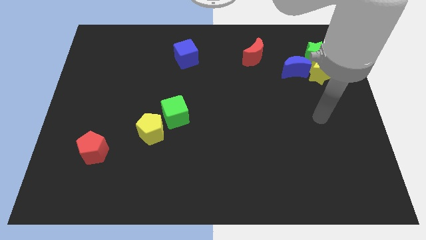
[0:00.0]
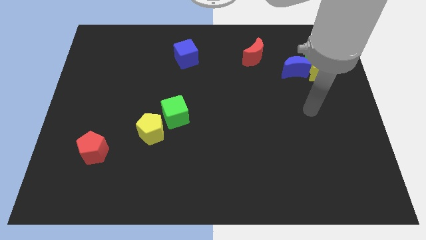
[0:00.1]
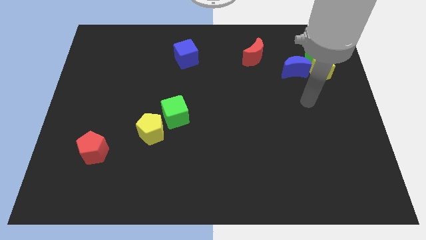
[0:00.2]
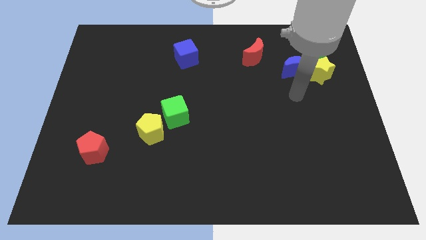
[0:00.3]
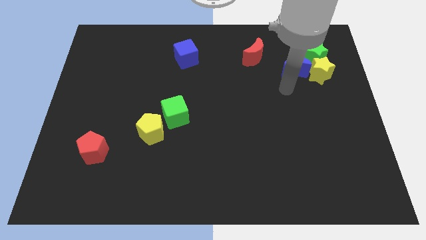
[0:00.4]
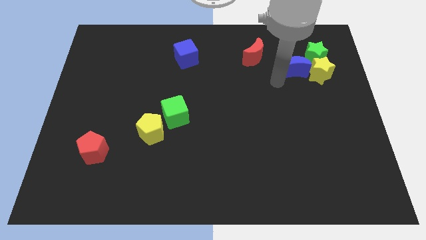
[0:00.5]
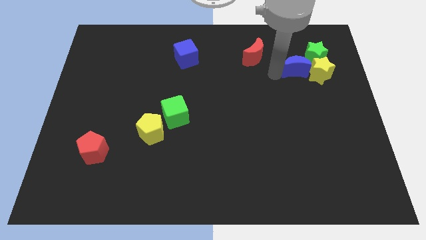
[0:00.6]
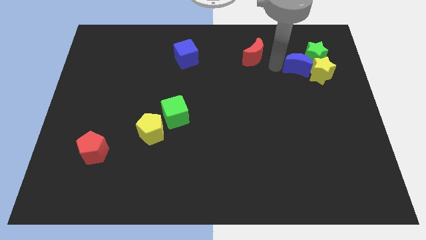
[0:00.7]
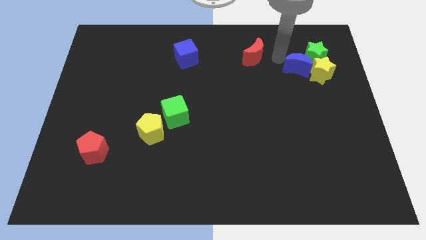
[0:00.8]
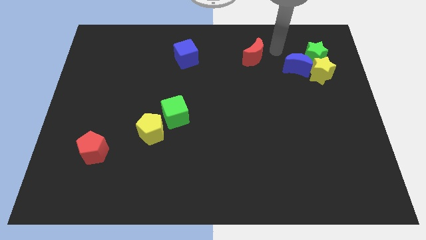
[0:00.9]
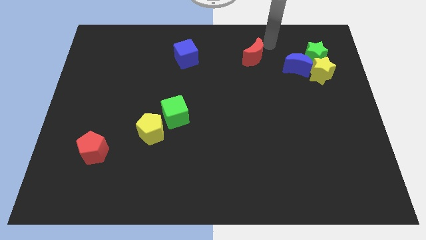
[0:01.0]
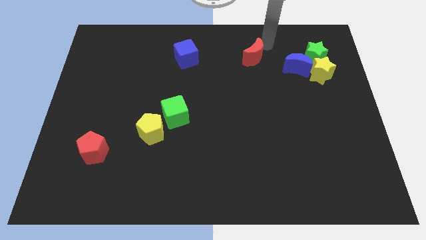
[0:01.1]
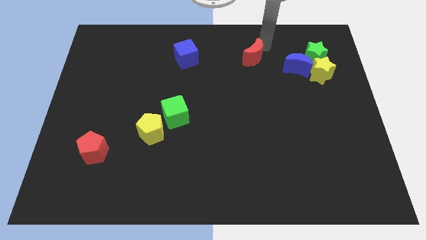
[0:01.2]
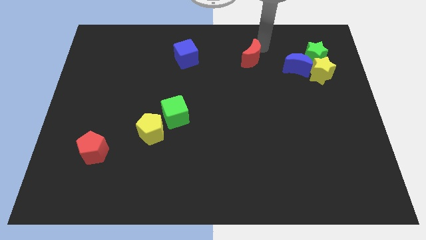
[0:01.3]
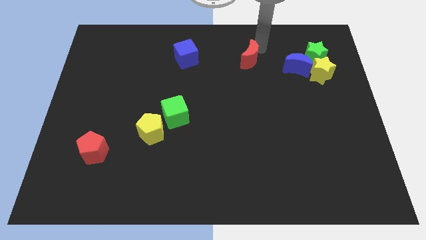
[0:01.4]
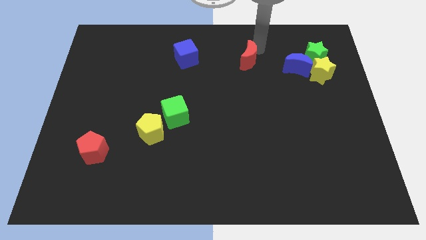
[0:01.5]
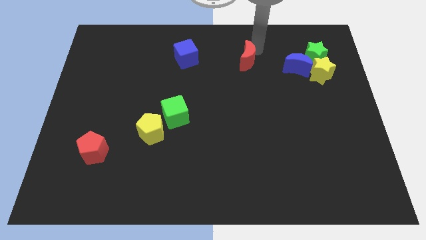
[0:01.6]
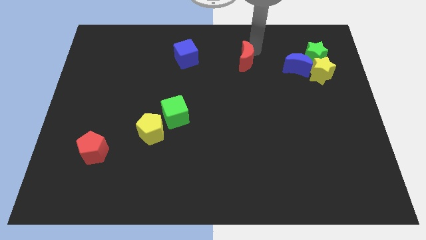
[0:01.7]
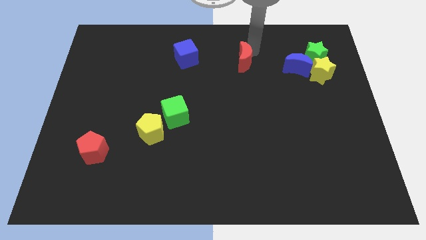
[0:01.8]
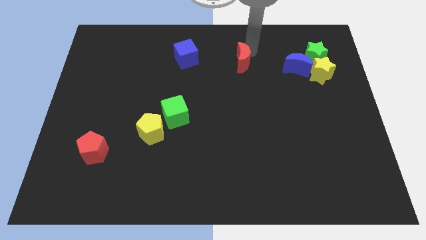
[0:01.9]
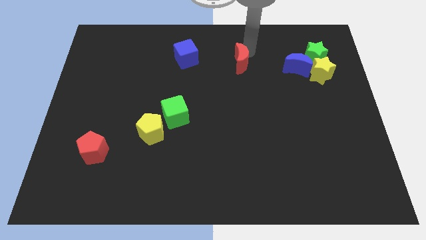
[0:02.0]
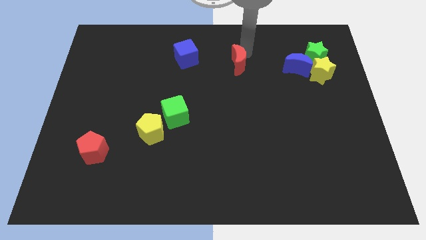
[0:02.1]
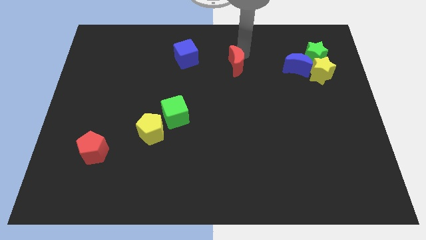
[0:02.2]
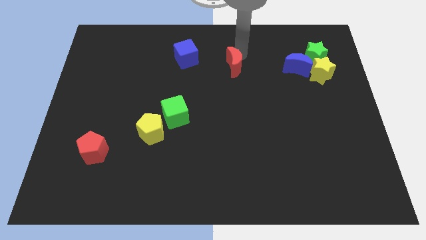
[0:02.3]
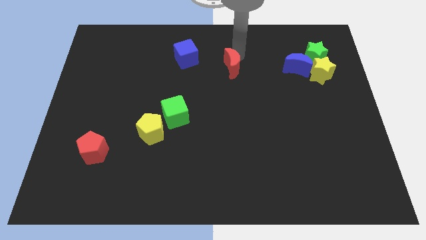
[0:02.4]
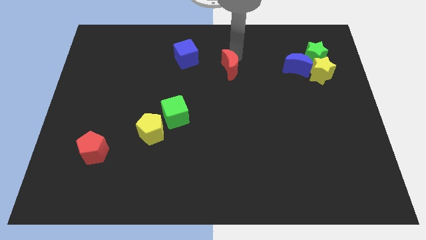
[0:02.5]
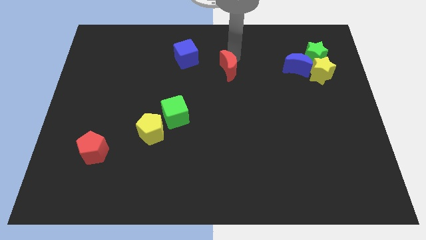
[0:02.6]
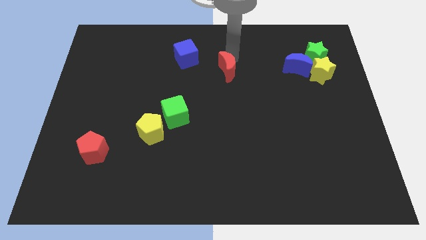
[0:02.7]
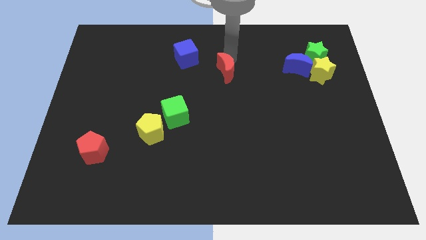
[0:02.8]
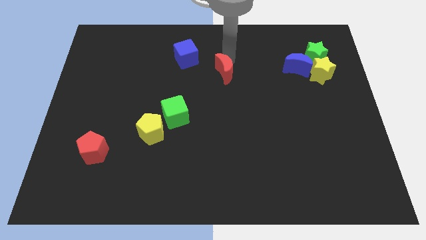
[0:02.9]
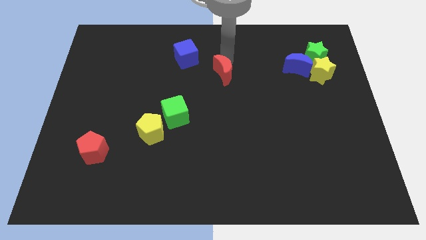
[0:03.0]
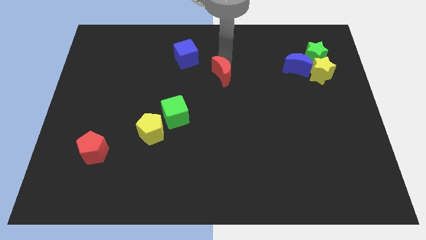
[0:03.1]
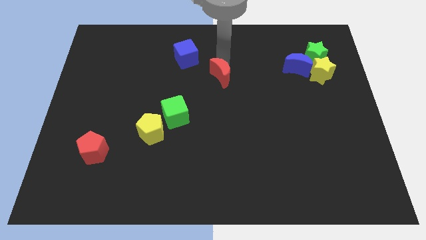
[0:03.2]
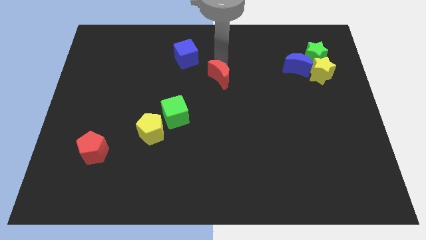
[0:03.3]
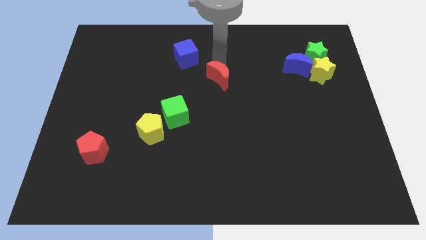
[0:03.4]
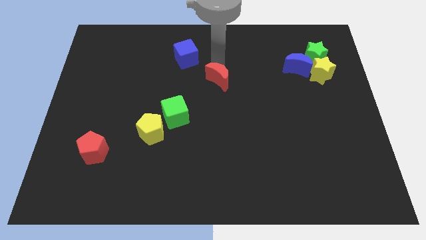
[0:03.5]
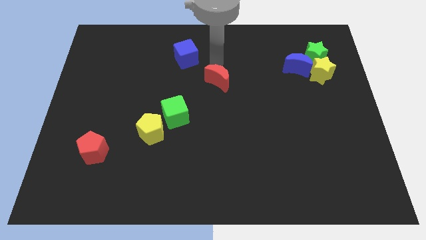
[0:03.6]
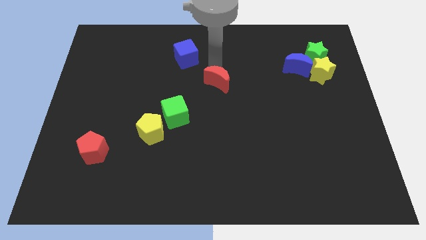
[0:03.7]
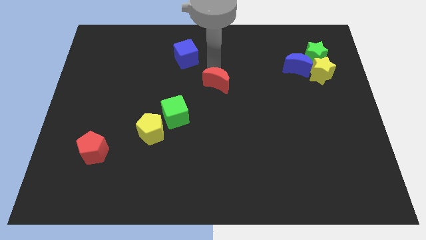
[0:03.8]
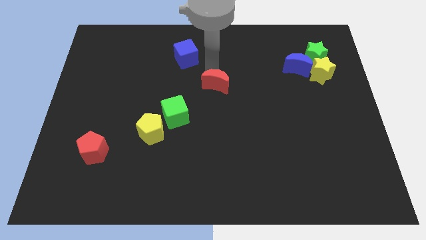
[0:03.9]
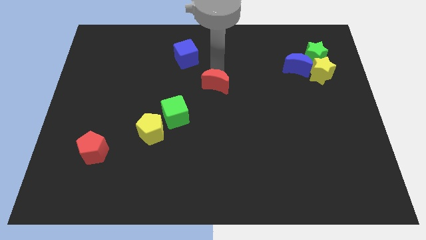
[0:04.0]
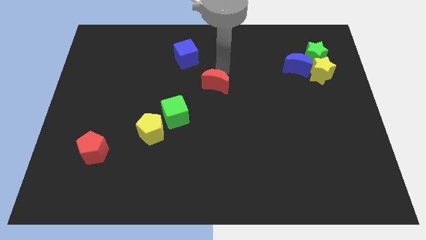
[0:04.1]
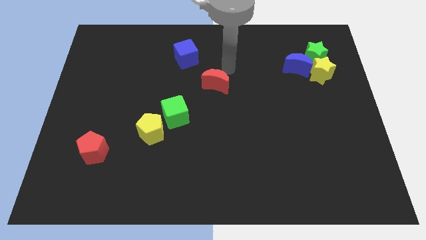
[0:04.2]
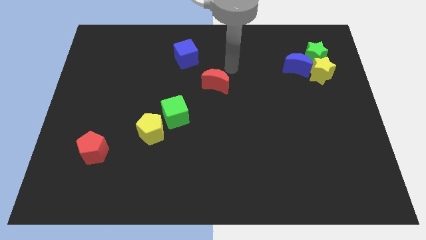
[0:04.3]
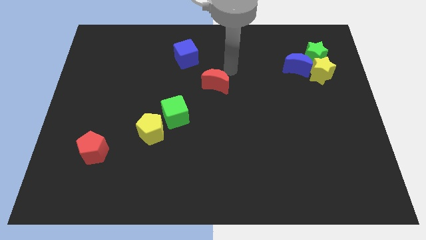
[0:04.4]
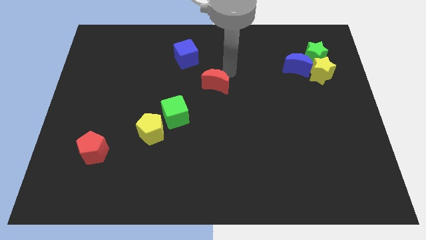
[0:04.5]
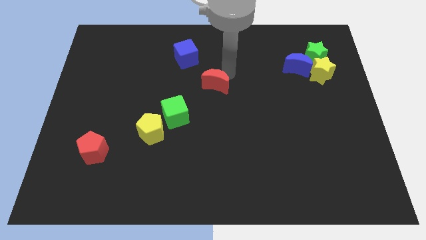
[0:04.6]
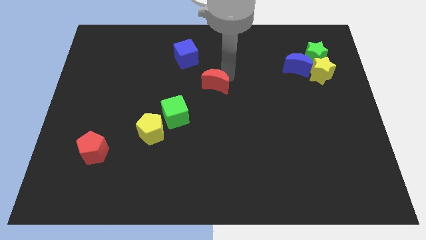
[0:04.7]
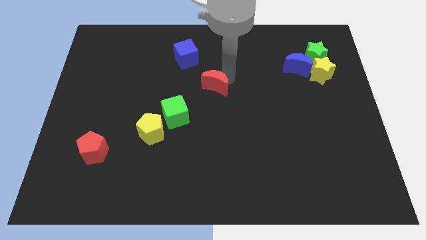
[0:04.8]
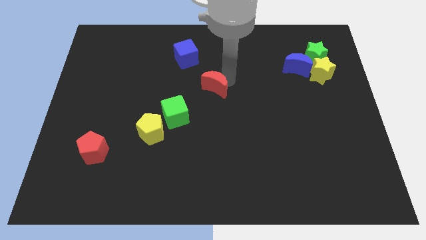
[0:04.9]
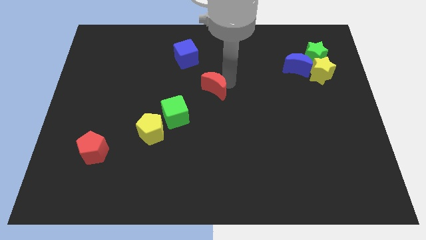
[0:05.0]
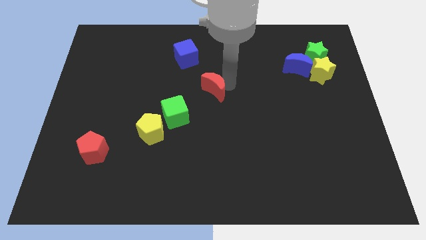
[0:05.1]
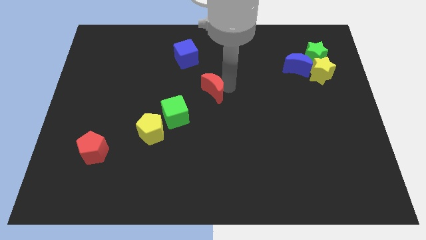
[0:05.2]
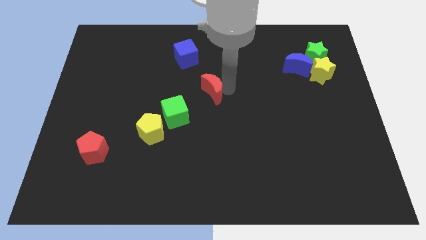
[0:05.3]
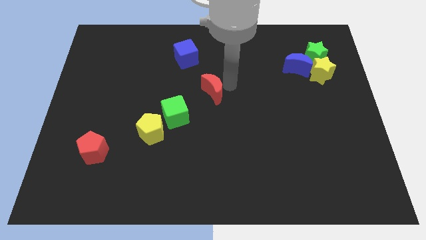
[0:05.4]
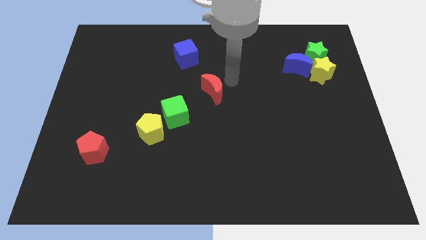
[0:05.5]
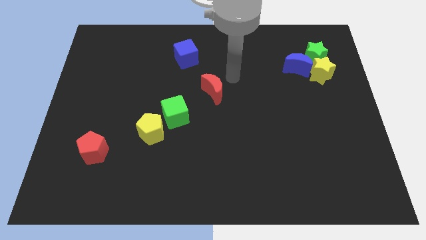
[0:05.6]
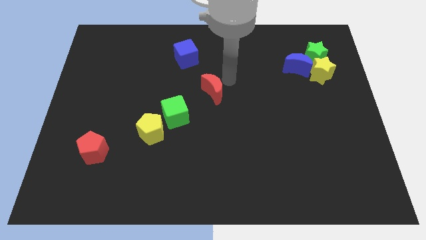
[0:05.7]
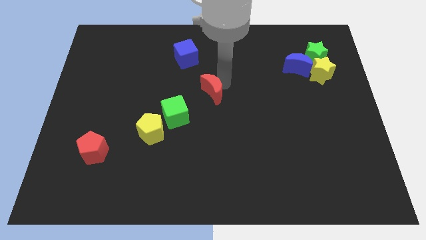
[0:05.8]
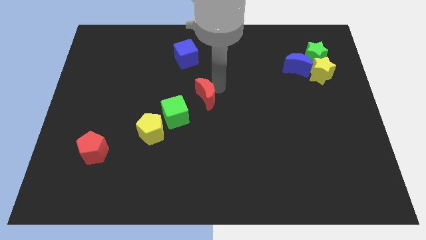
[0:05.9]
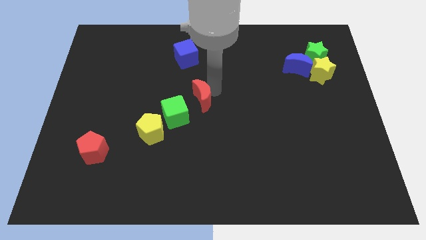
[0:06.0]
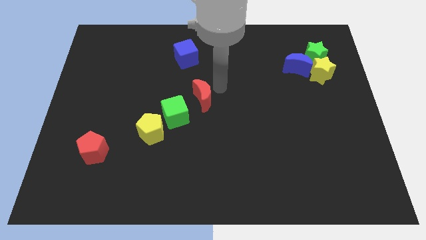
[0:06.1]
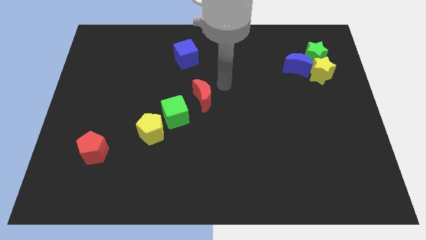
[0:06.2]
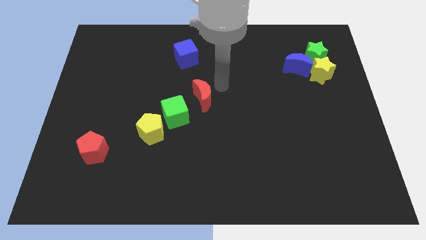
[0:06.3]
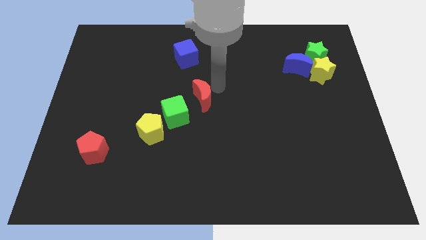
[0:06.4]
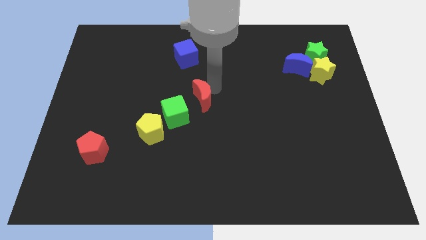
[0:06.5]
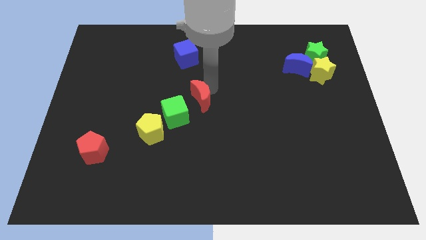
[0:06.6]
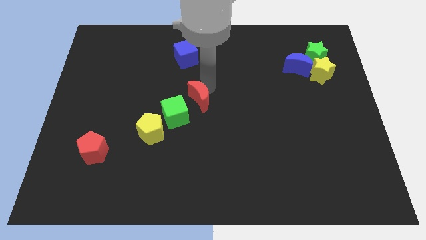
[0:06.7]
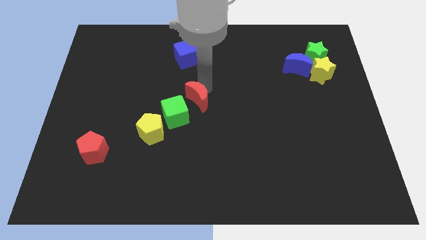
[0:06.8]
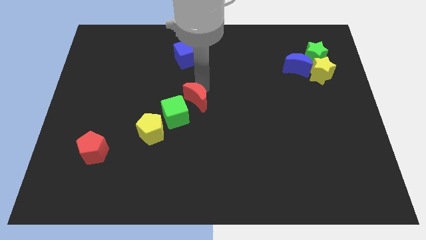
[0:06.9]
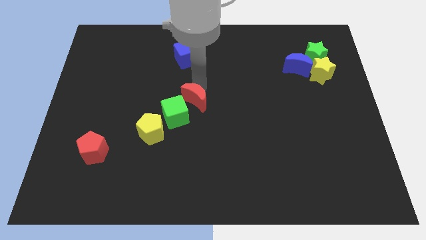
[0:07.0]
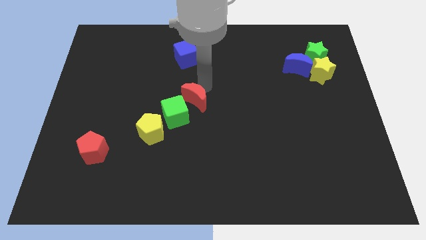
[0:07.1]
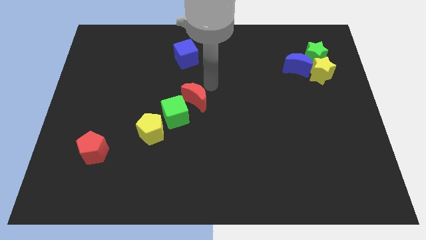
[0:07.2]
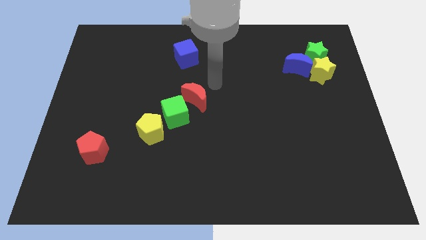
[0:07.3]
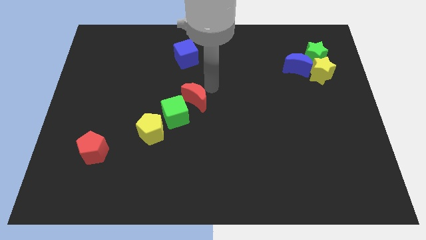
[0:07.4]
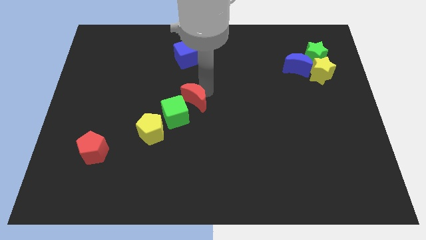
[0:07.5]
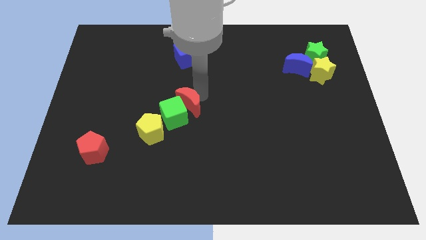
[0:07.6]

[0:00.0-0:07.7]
push the red moon towards the green cube
